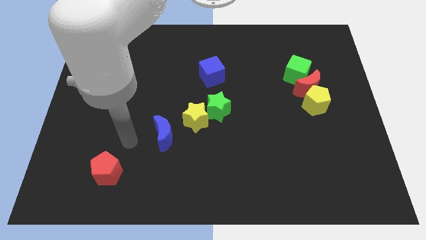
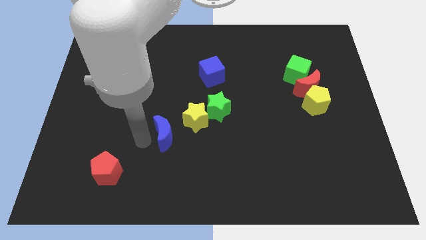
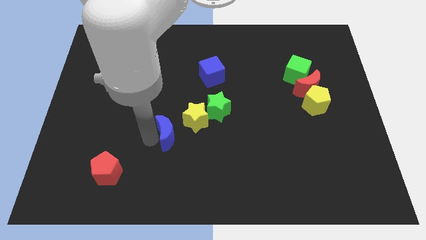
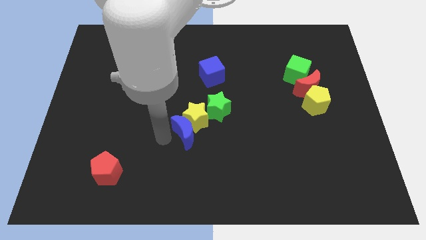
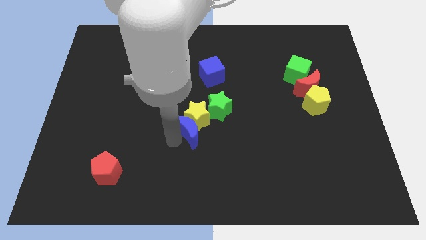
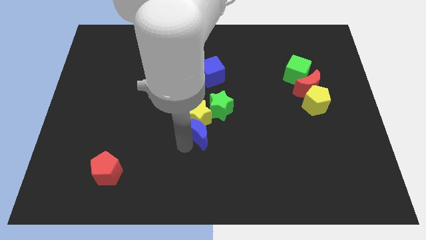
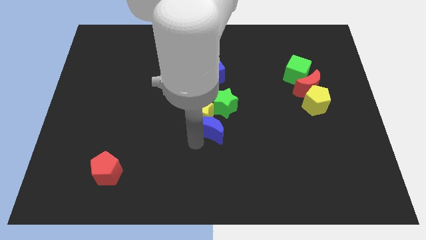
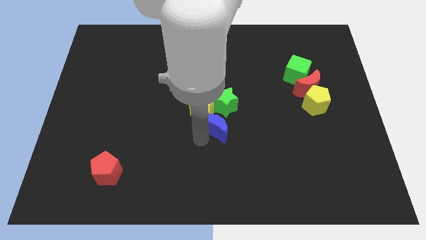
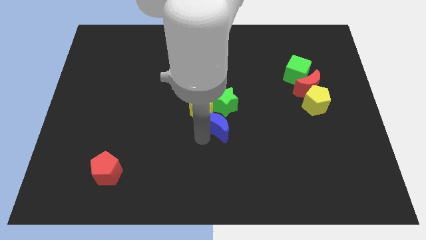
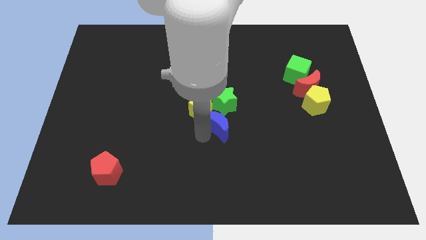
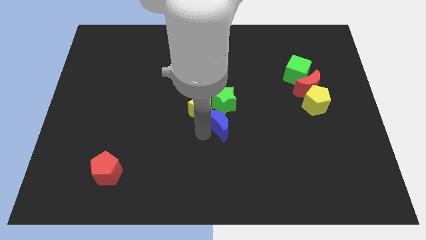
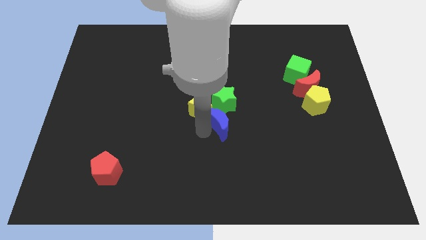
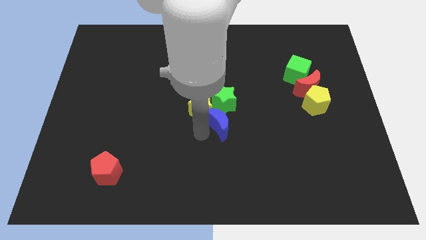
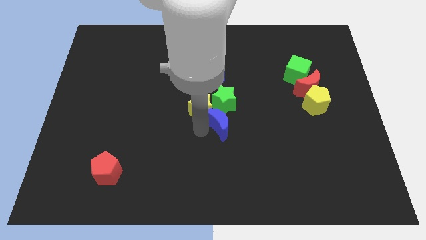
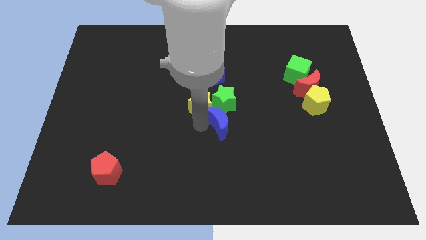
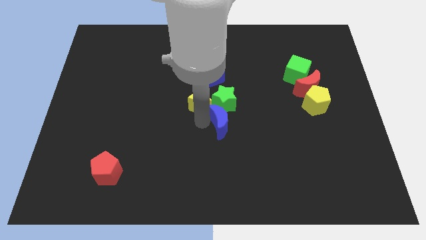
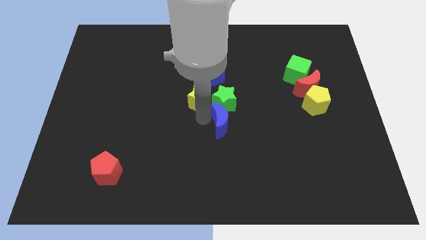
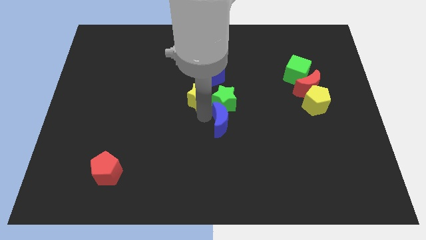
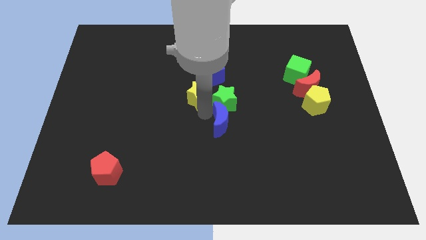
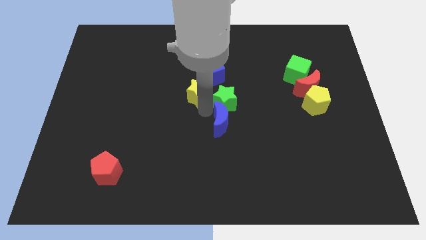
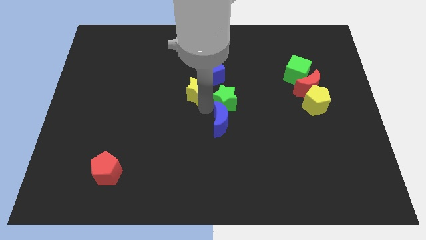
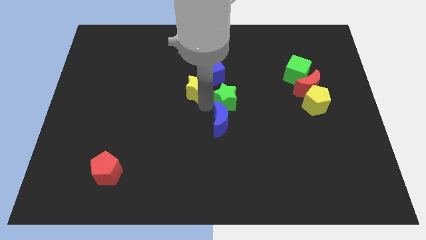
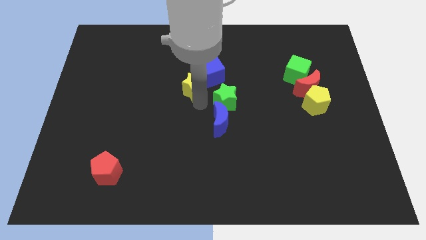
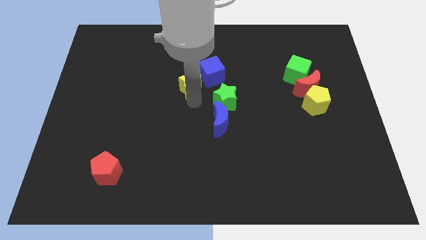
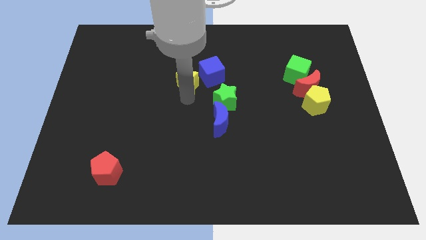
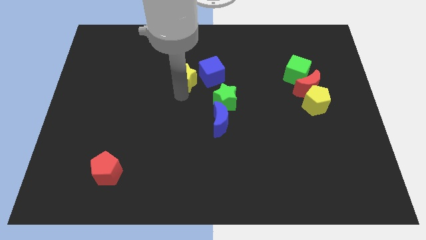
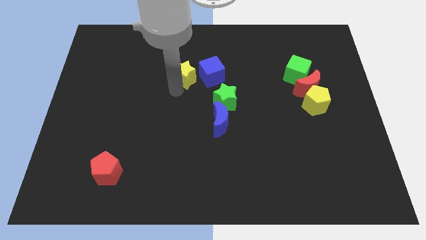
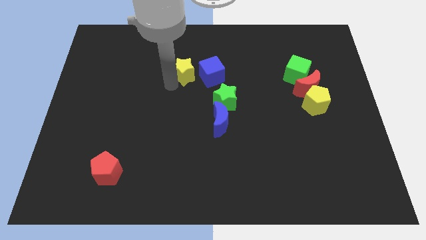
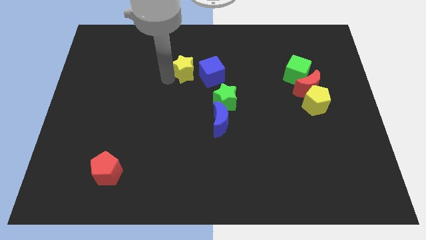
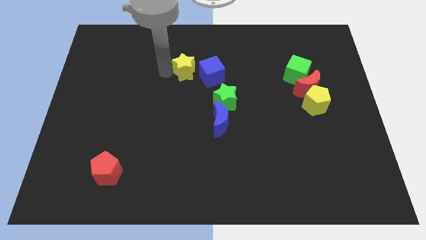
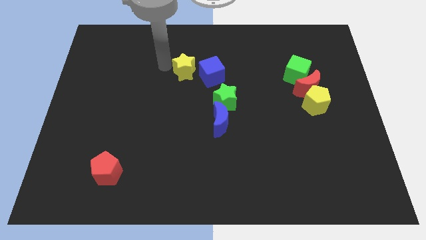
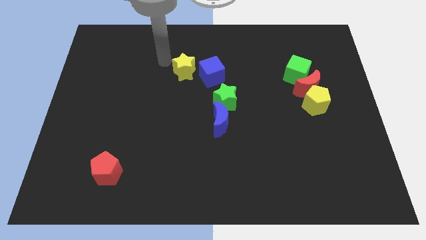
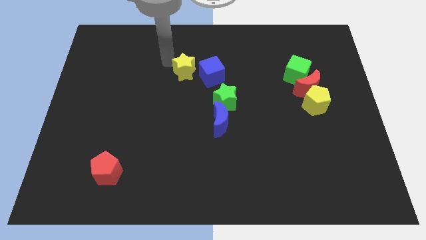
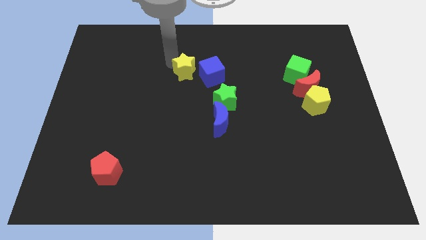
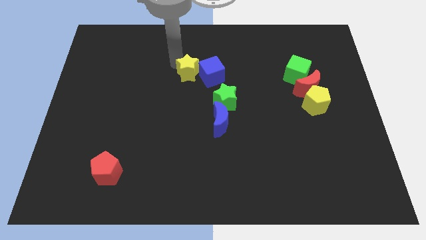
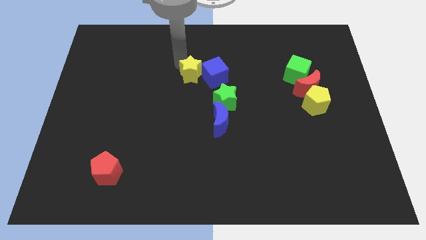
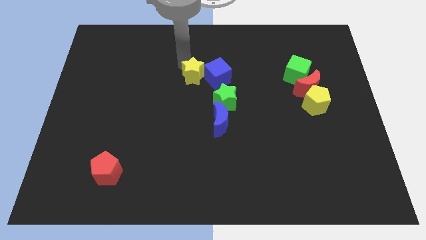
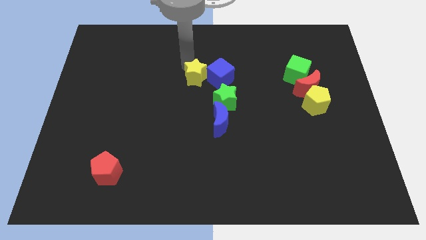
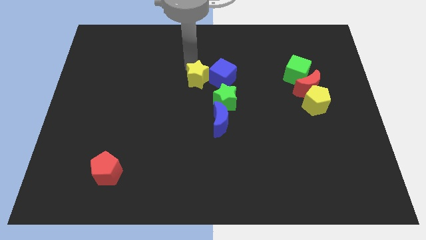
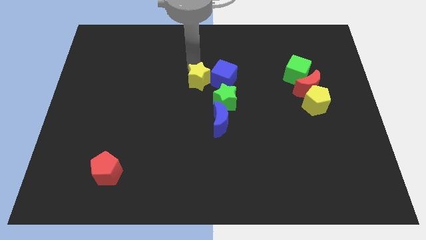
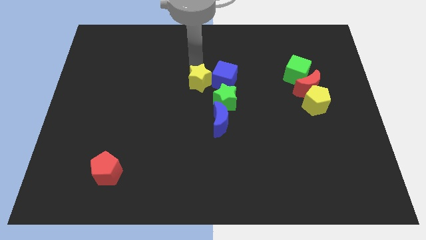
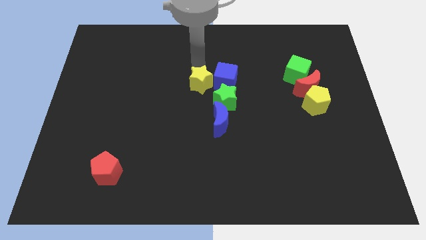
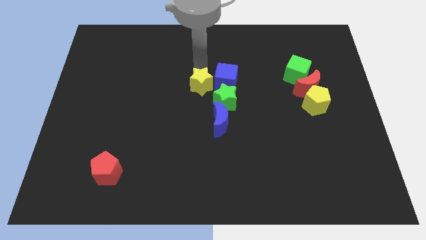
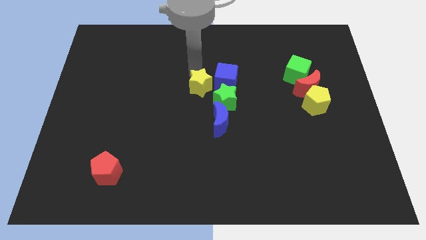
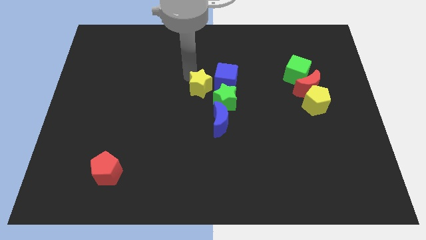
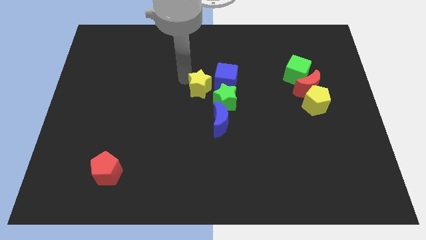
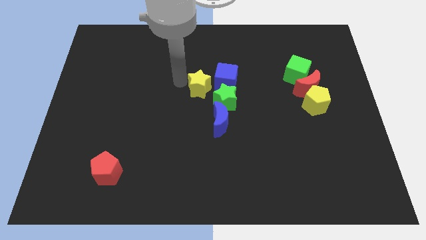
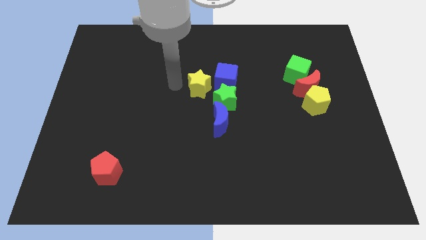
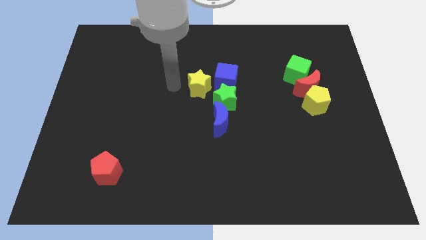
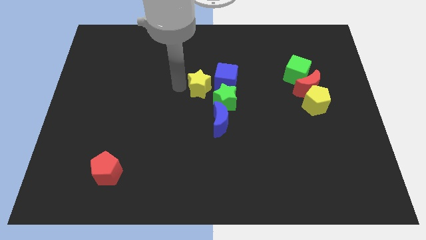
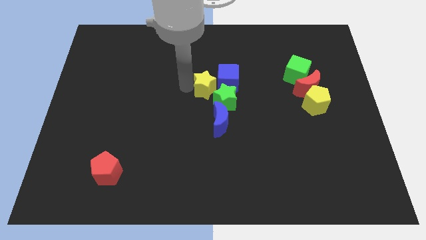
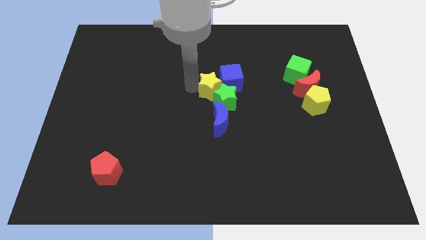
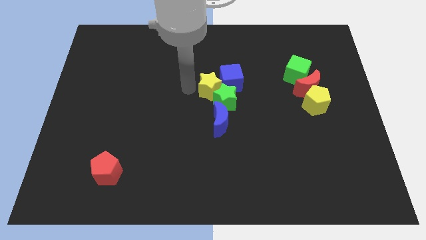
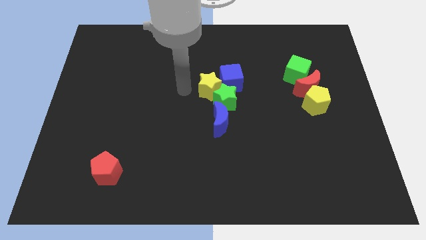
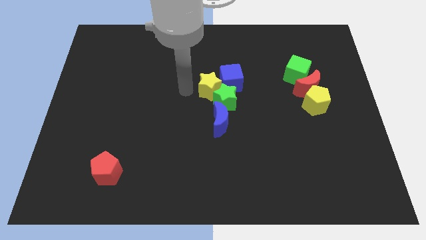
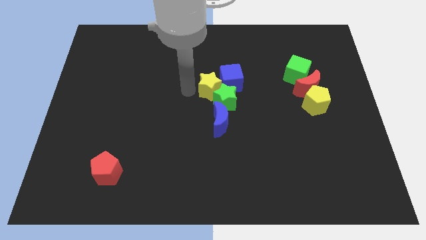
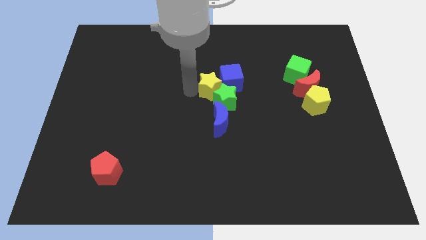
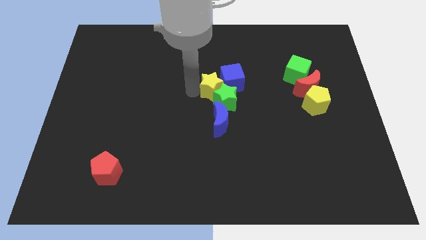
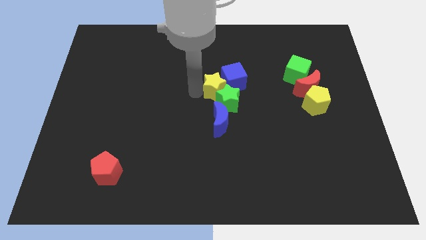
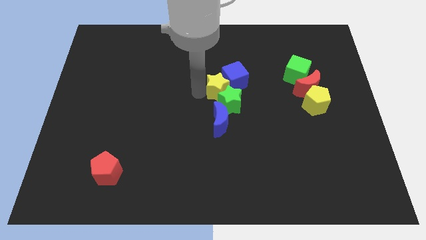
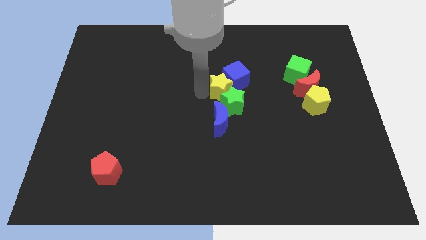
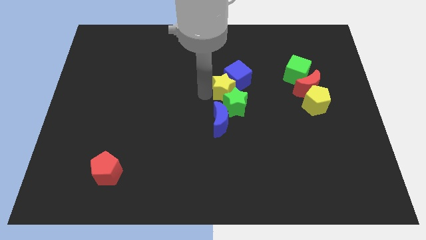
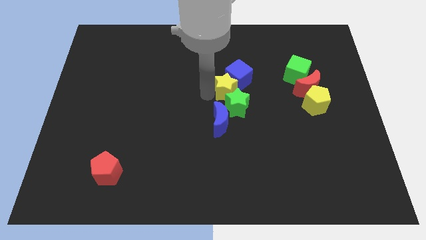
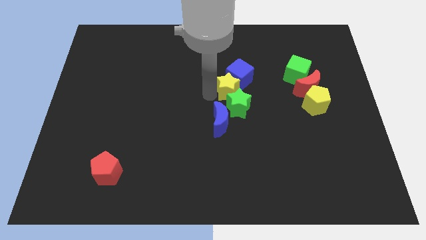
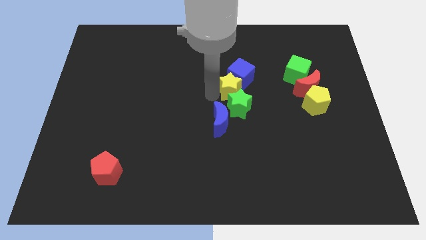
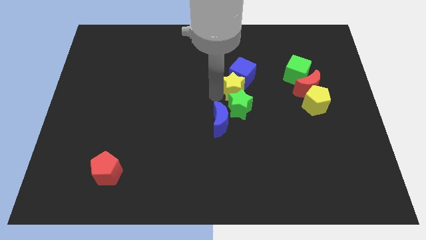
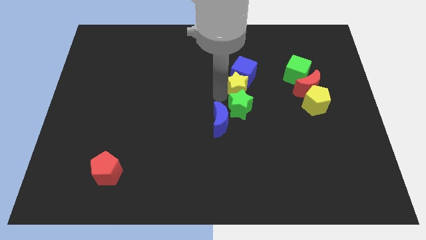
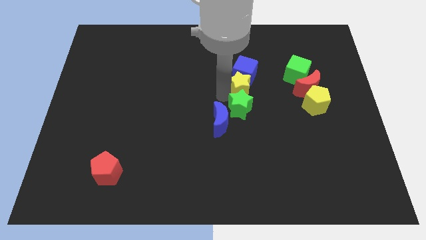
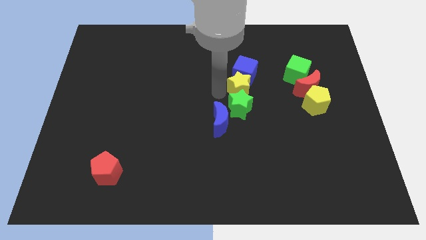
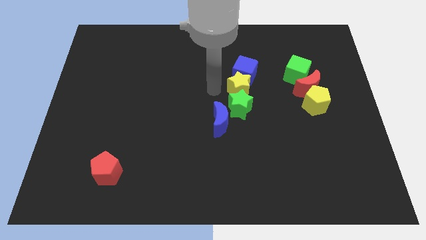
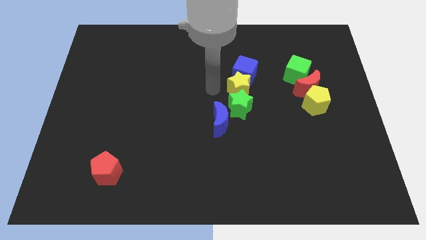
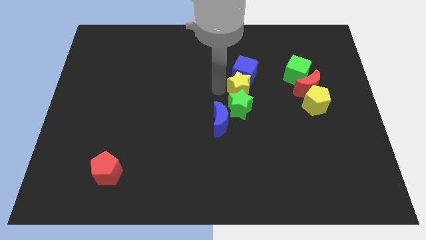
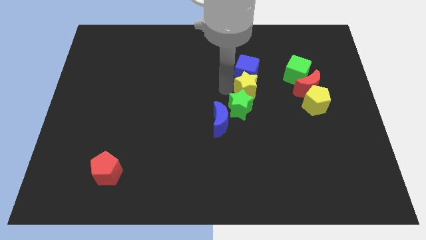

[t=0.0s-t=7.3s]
push the yellow star just left of the red moon
